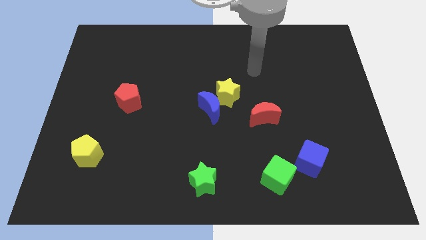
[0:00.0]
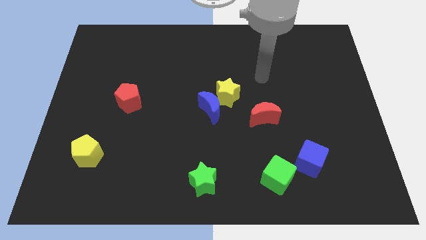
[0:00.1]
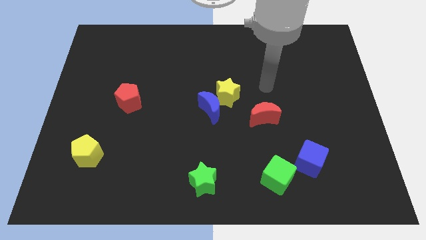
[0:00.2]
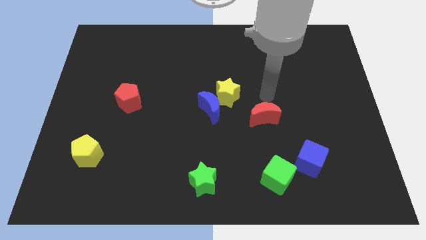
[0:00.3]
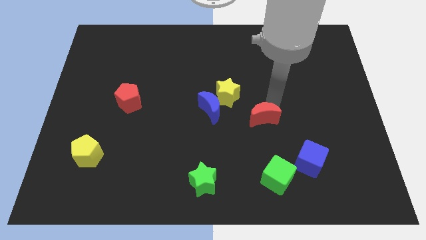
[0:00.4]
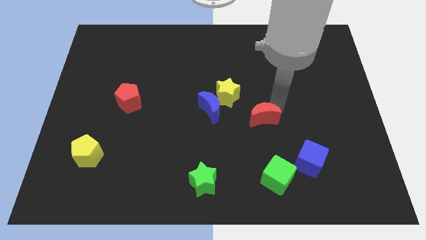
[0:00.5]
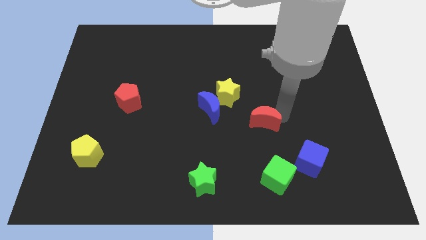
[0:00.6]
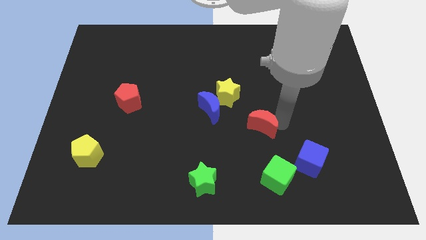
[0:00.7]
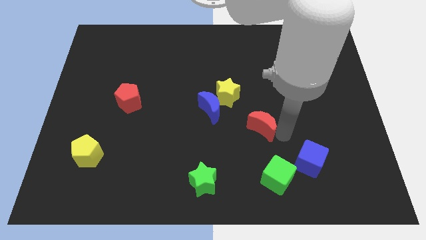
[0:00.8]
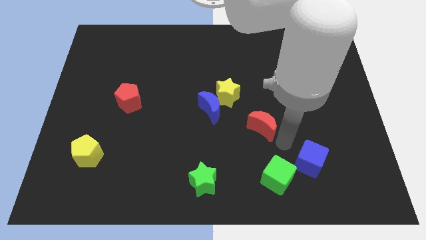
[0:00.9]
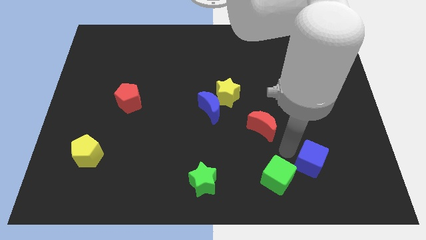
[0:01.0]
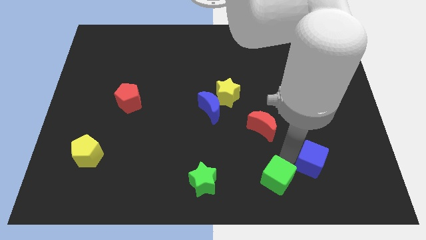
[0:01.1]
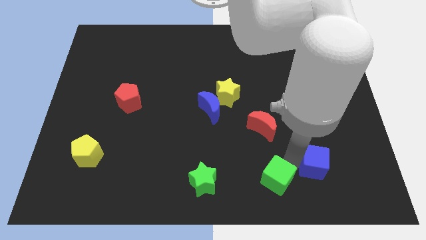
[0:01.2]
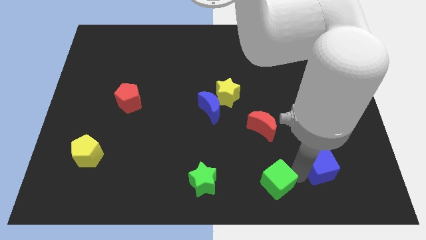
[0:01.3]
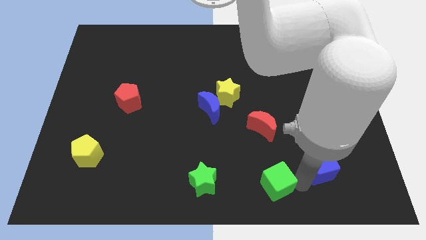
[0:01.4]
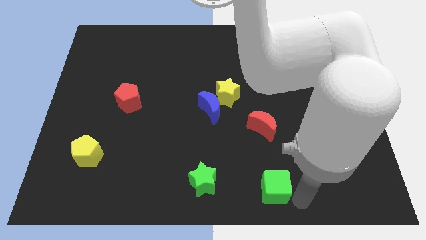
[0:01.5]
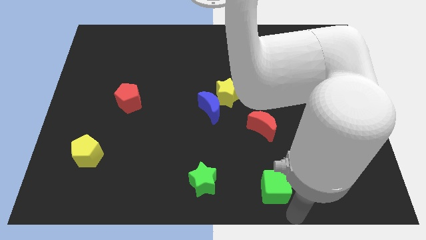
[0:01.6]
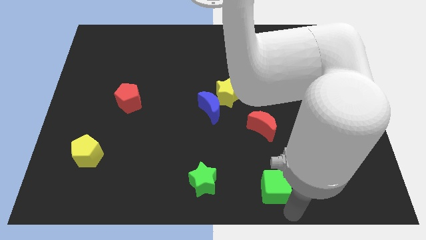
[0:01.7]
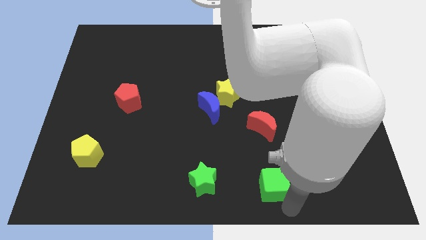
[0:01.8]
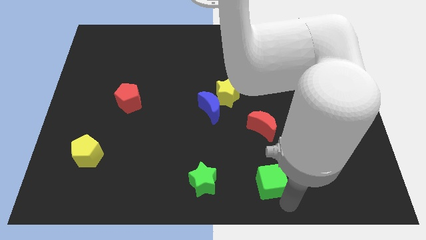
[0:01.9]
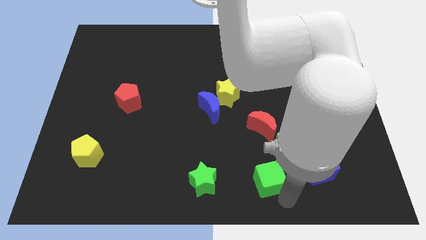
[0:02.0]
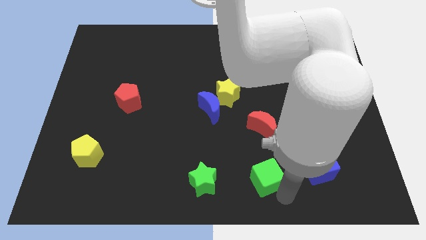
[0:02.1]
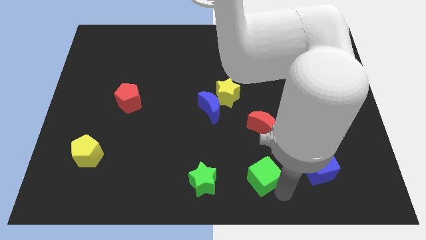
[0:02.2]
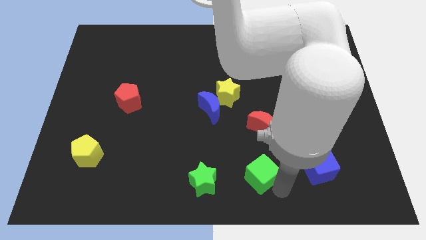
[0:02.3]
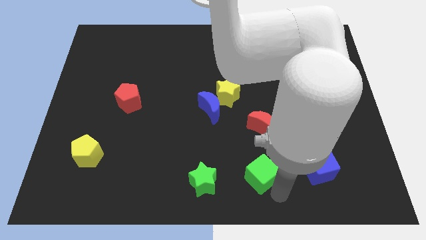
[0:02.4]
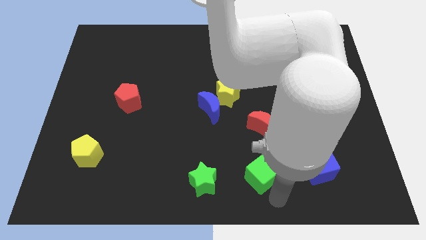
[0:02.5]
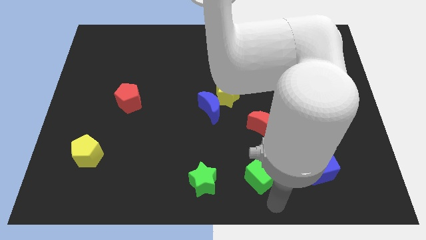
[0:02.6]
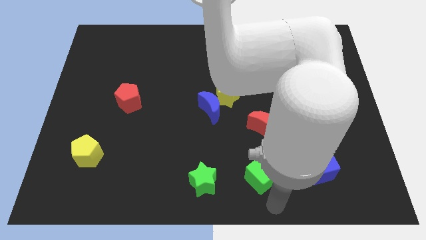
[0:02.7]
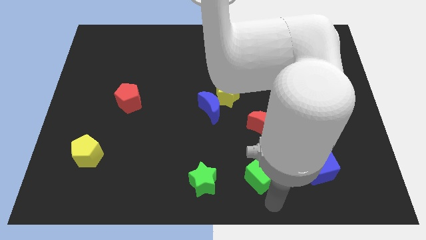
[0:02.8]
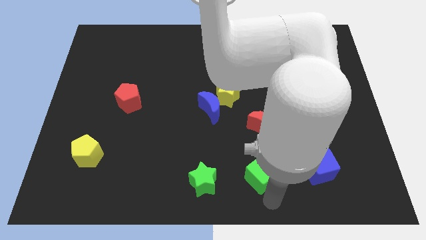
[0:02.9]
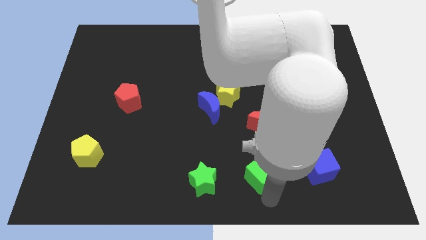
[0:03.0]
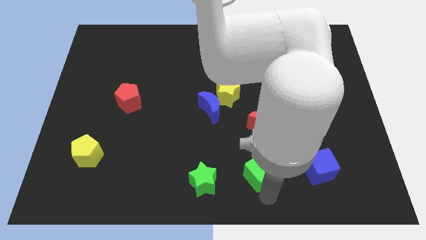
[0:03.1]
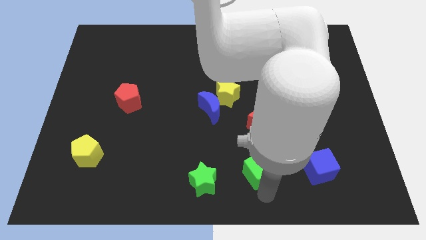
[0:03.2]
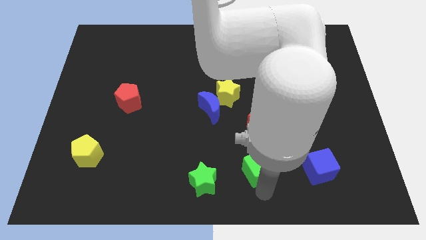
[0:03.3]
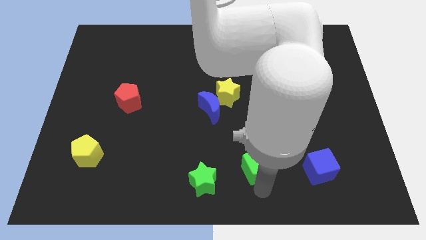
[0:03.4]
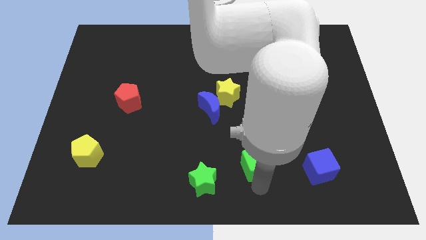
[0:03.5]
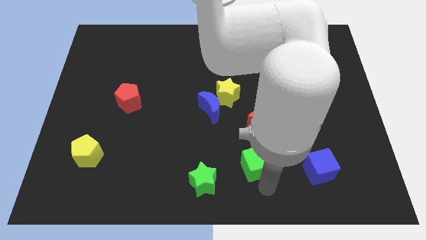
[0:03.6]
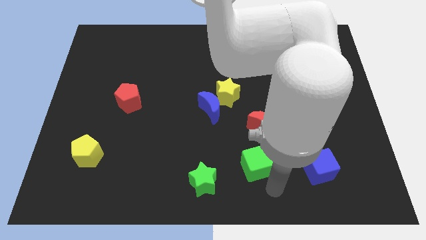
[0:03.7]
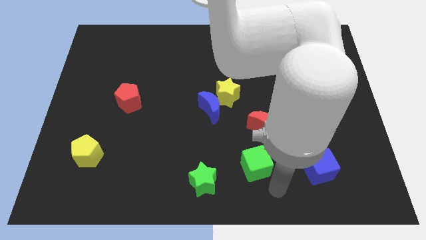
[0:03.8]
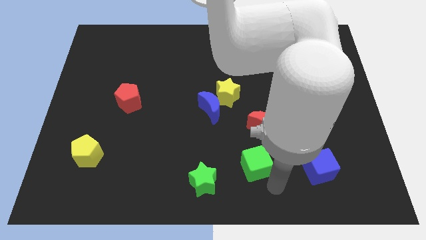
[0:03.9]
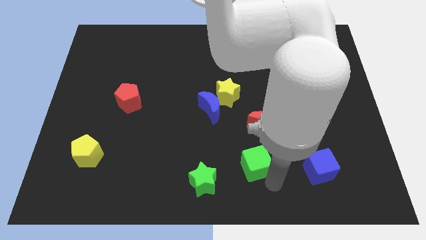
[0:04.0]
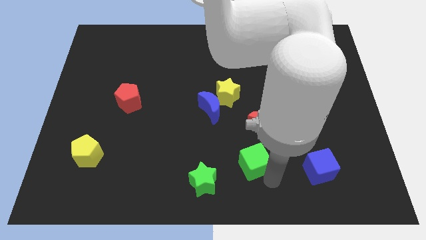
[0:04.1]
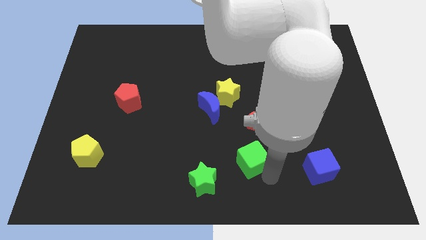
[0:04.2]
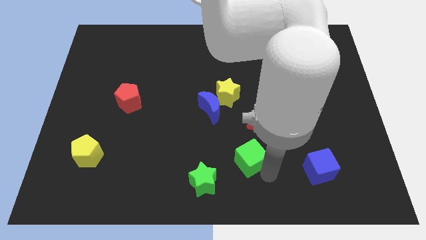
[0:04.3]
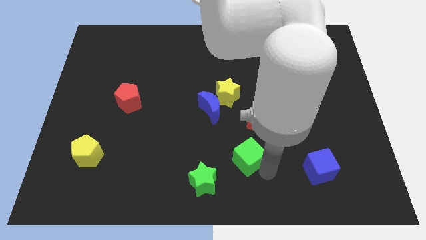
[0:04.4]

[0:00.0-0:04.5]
slide the green cube somewhat upwards and then left

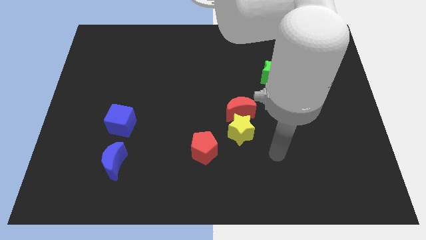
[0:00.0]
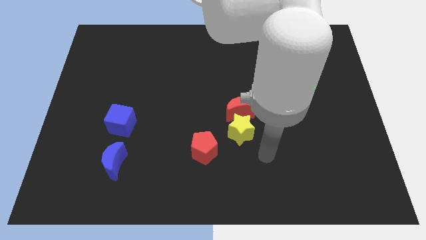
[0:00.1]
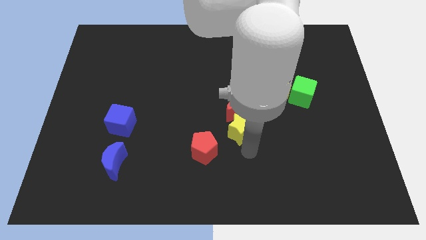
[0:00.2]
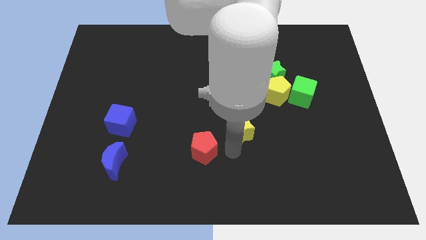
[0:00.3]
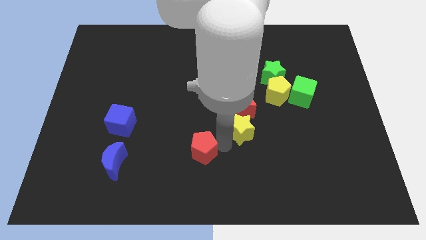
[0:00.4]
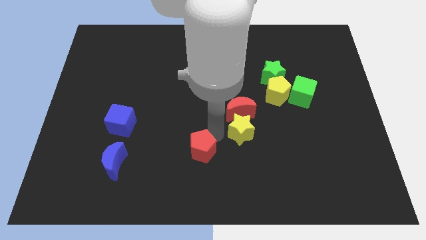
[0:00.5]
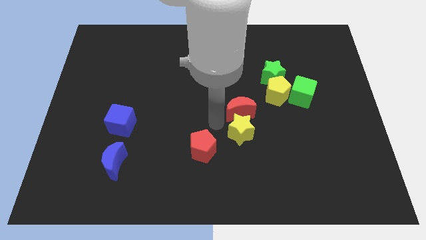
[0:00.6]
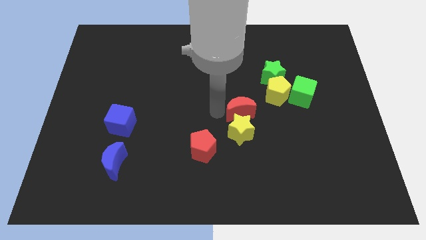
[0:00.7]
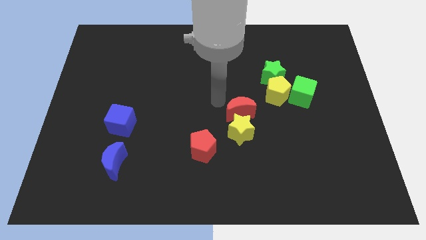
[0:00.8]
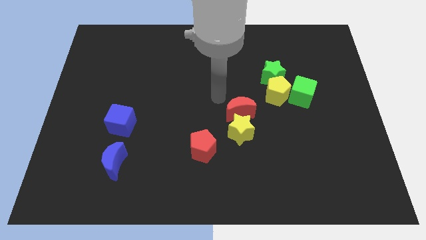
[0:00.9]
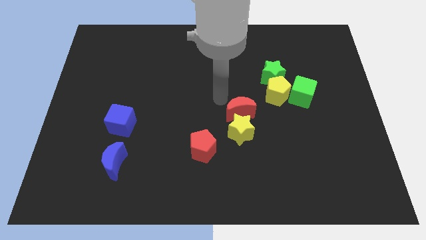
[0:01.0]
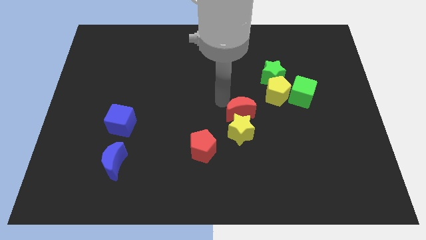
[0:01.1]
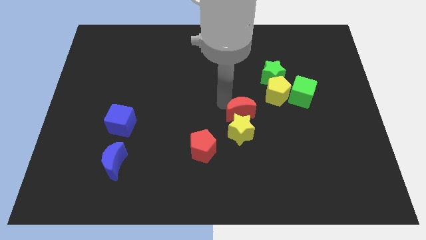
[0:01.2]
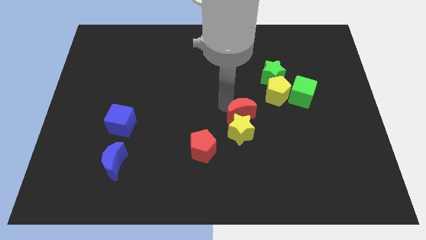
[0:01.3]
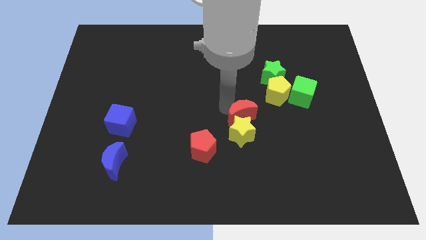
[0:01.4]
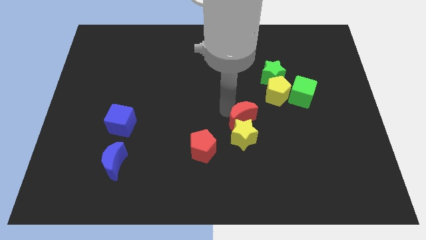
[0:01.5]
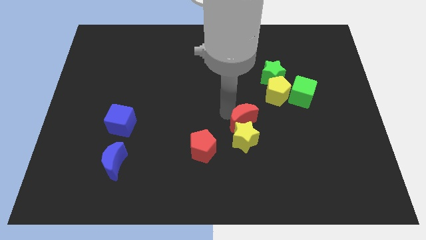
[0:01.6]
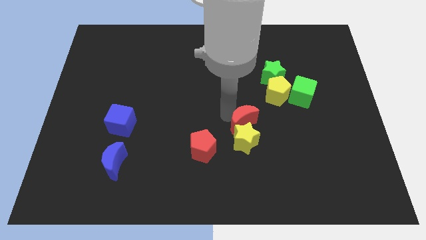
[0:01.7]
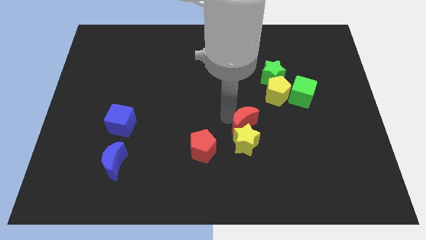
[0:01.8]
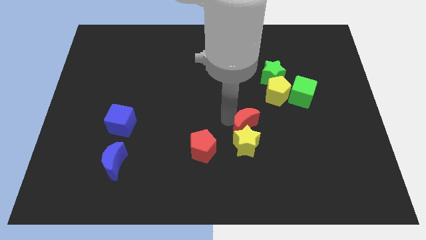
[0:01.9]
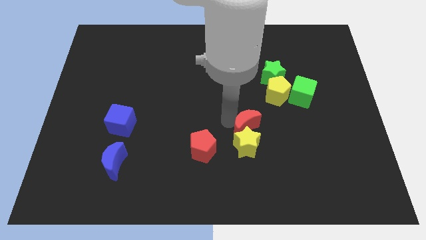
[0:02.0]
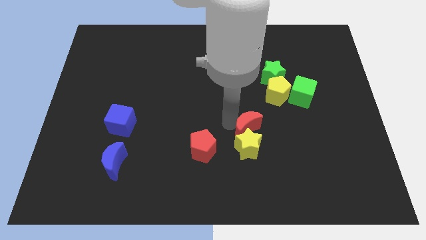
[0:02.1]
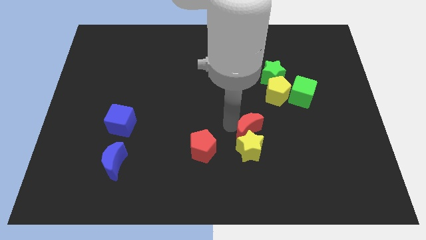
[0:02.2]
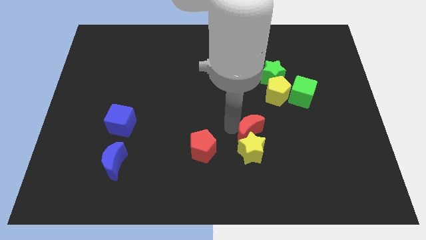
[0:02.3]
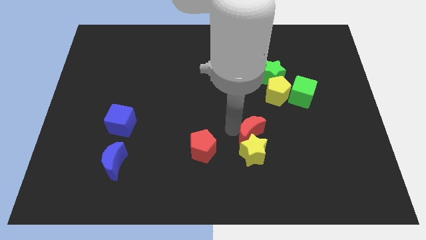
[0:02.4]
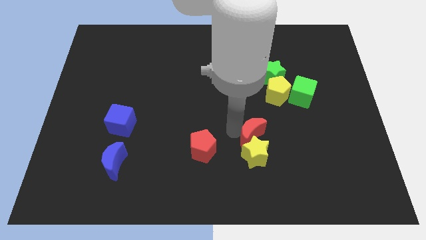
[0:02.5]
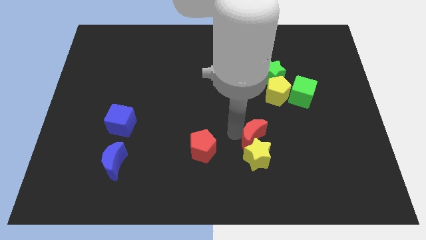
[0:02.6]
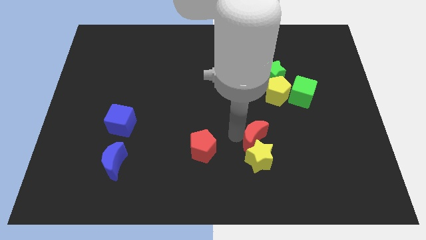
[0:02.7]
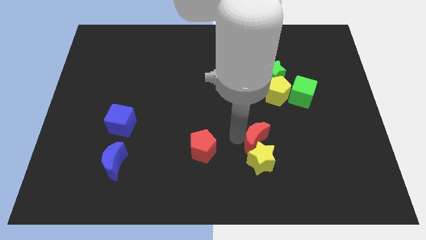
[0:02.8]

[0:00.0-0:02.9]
slightly push the red moon downwards and then right
